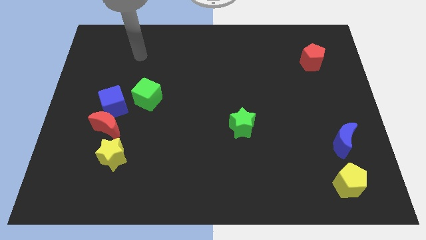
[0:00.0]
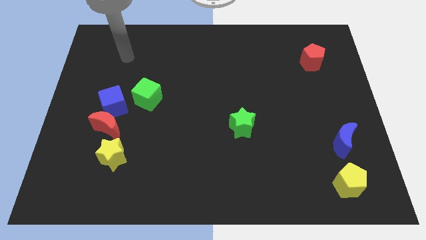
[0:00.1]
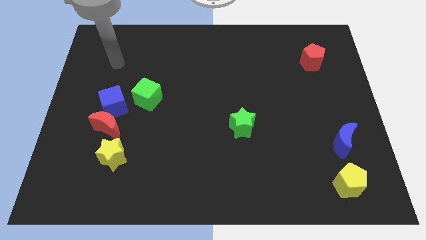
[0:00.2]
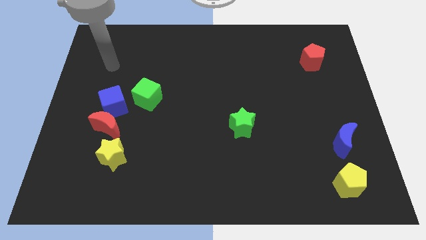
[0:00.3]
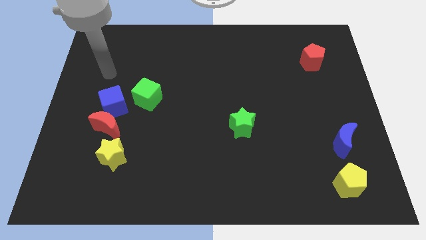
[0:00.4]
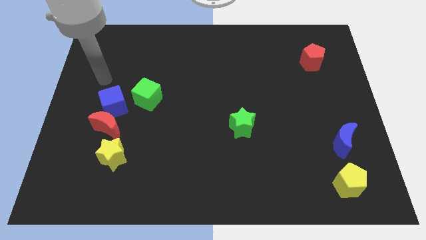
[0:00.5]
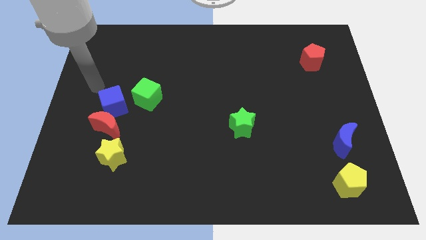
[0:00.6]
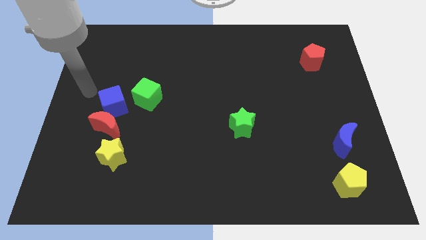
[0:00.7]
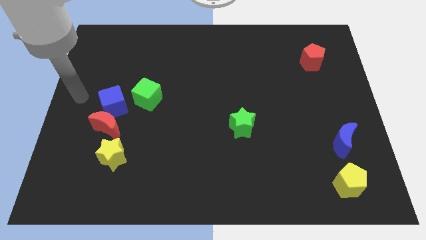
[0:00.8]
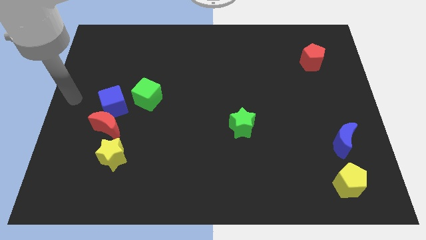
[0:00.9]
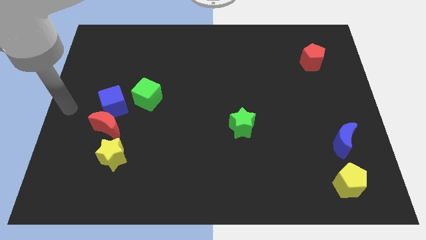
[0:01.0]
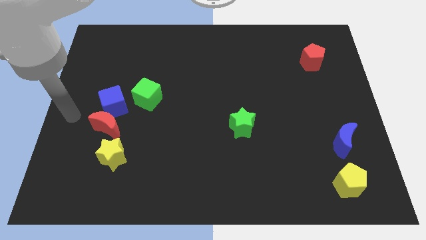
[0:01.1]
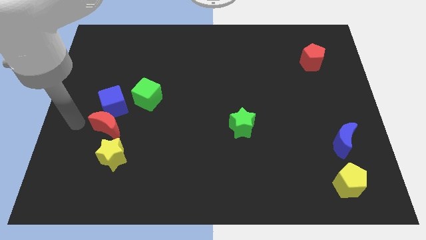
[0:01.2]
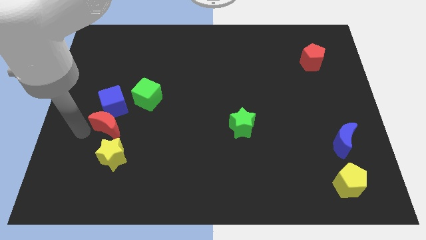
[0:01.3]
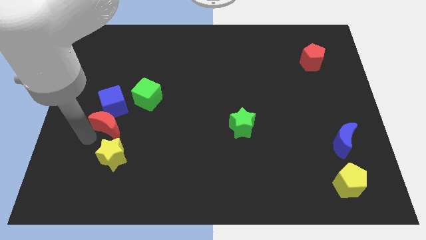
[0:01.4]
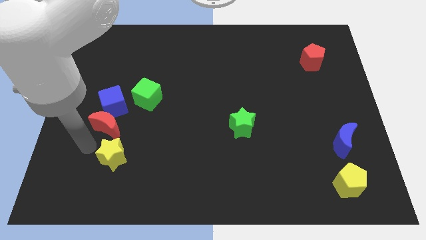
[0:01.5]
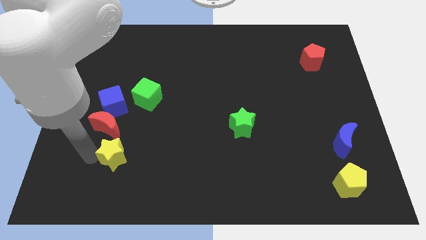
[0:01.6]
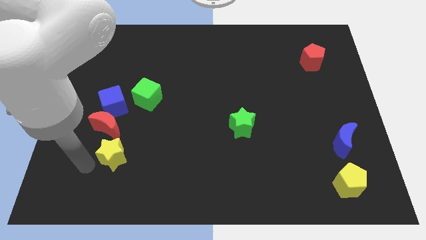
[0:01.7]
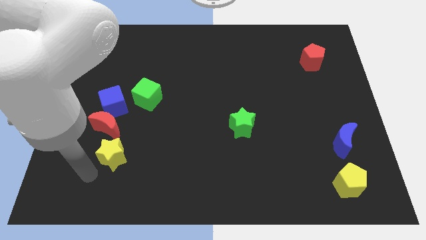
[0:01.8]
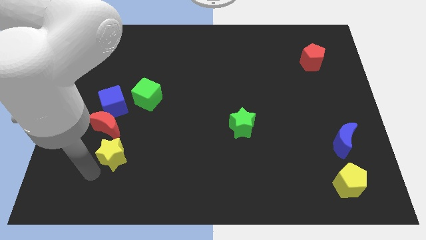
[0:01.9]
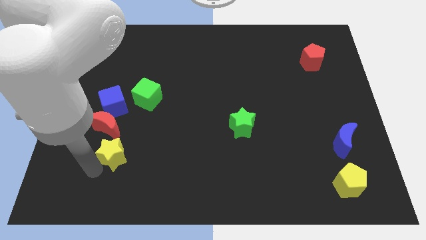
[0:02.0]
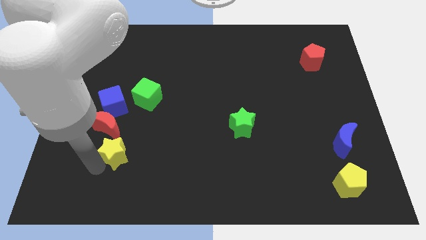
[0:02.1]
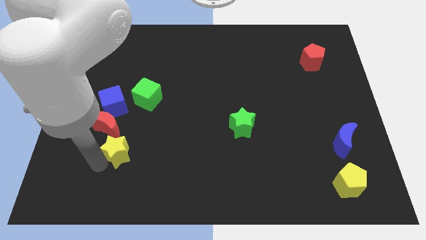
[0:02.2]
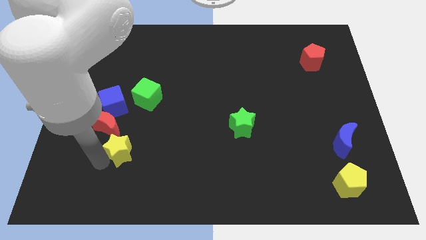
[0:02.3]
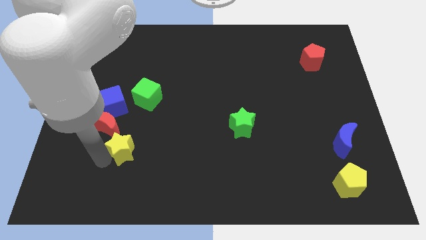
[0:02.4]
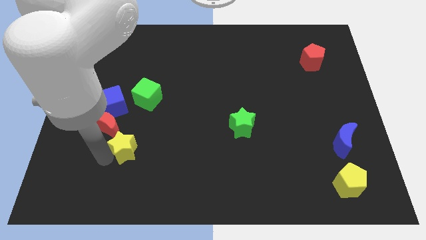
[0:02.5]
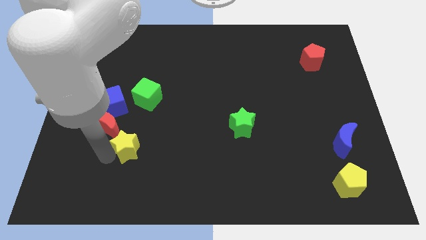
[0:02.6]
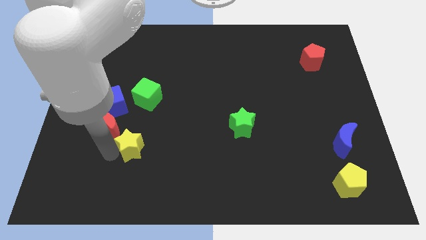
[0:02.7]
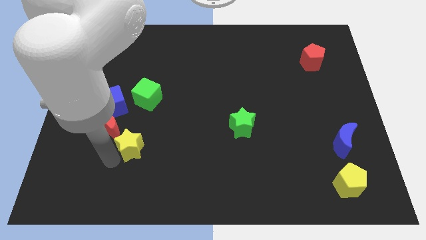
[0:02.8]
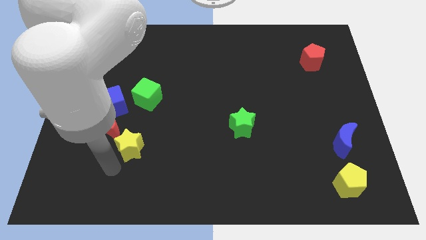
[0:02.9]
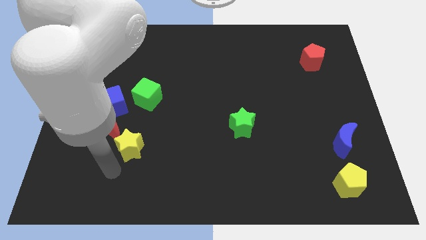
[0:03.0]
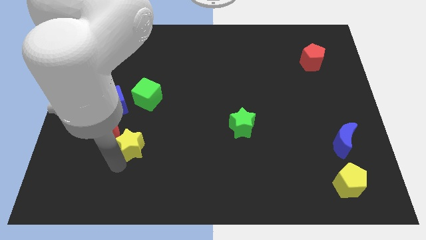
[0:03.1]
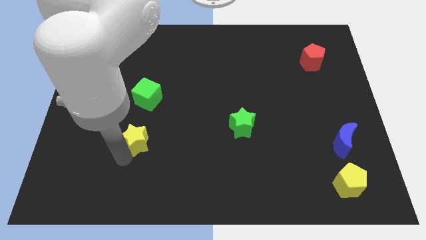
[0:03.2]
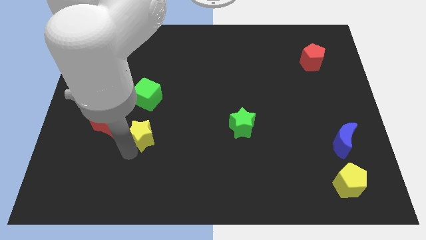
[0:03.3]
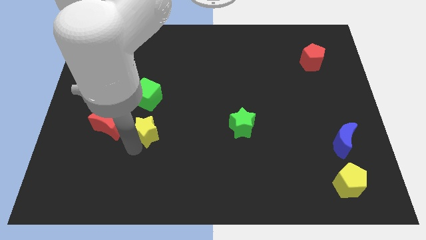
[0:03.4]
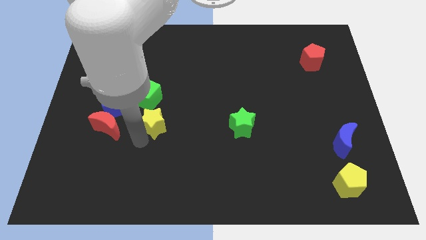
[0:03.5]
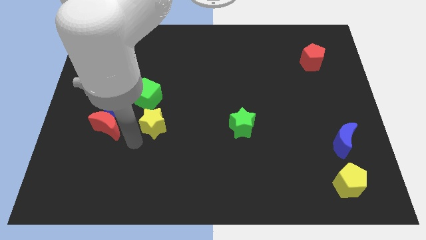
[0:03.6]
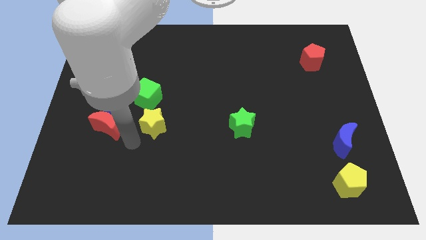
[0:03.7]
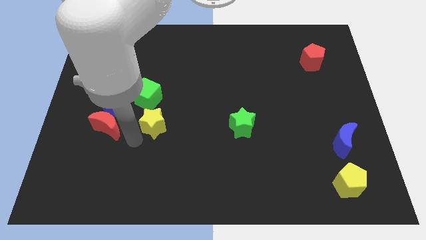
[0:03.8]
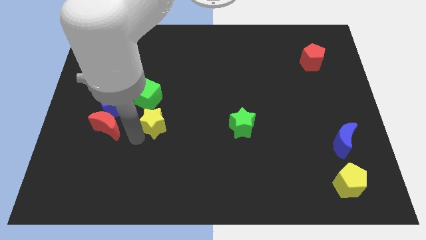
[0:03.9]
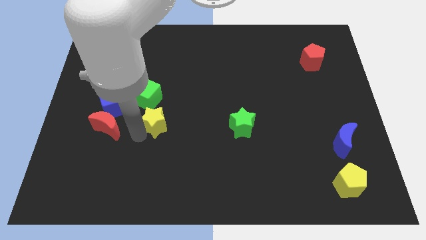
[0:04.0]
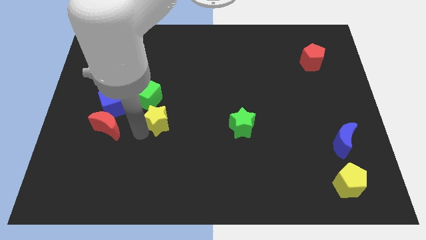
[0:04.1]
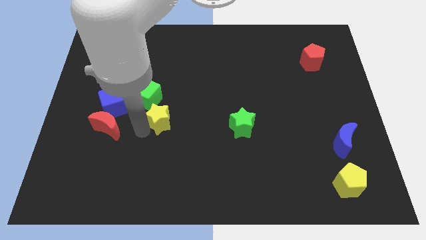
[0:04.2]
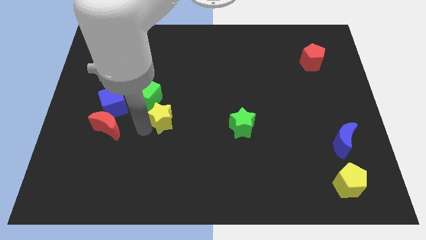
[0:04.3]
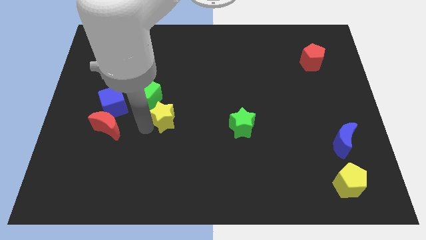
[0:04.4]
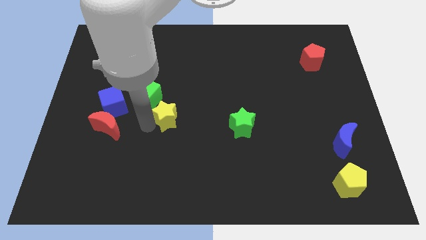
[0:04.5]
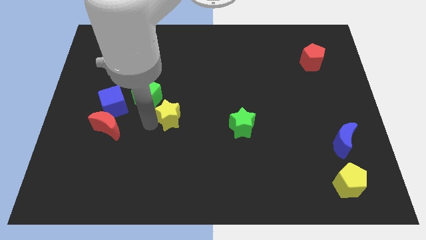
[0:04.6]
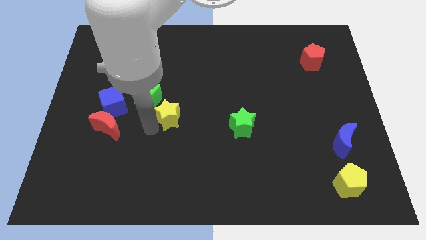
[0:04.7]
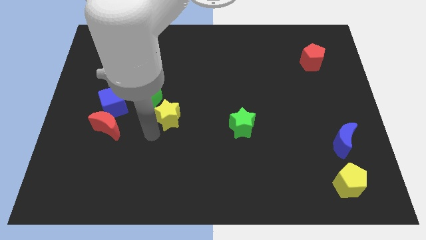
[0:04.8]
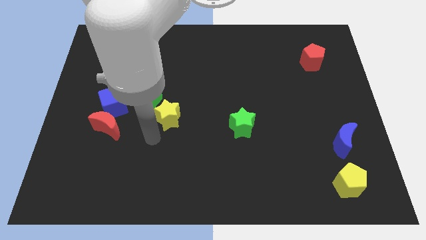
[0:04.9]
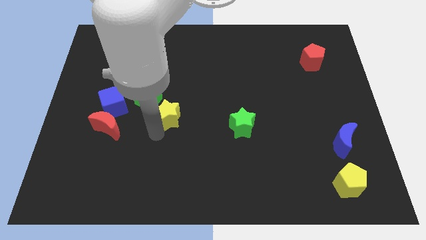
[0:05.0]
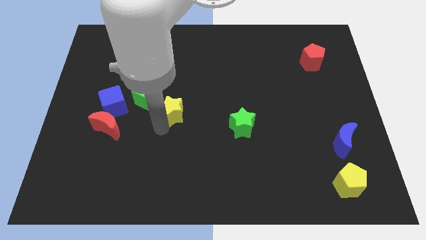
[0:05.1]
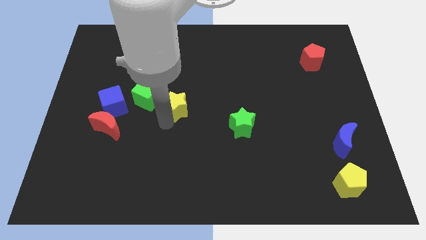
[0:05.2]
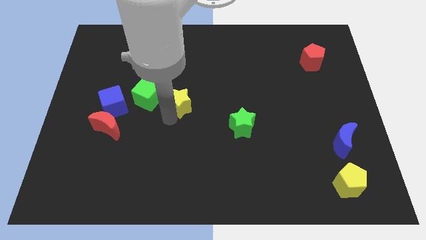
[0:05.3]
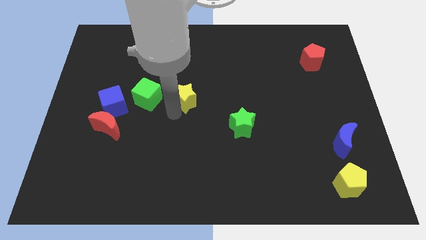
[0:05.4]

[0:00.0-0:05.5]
slide the yellow star diagonally up and right

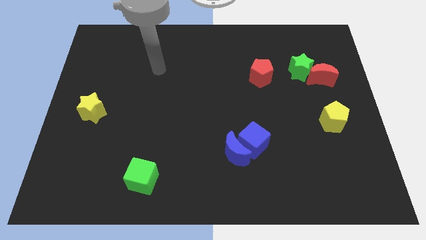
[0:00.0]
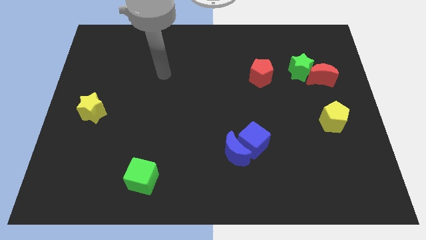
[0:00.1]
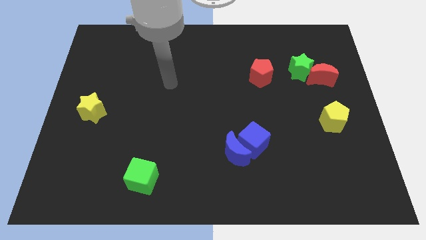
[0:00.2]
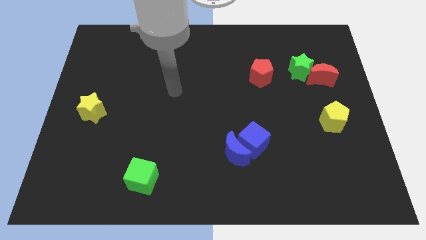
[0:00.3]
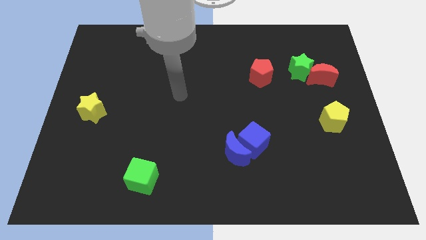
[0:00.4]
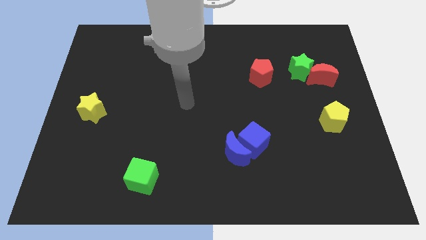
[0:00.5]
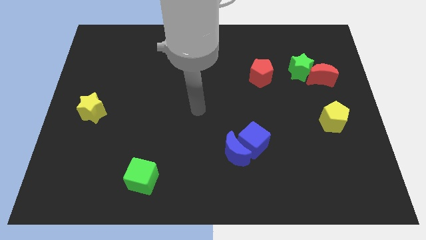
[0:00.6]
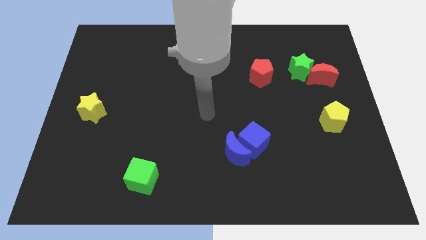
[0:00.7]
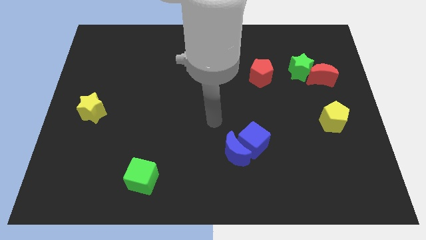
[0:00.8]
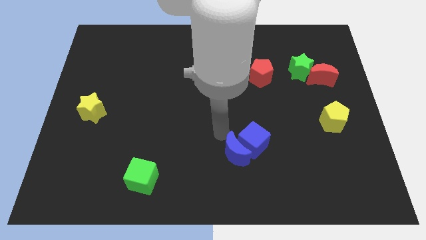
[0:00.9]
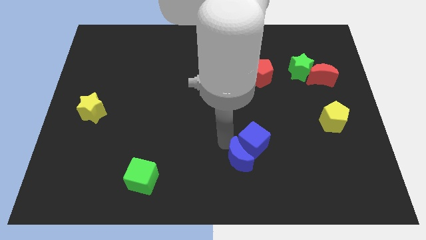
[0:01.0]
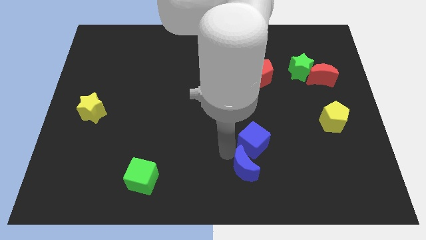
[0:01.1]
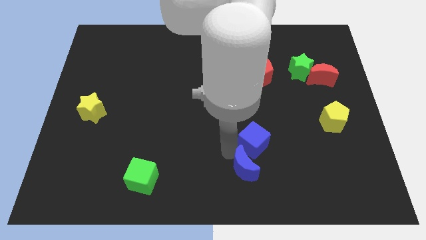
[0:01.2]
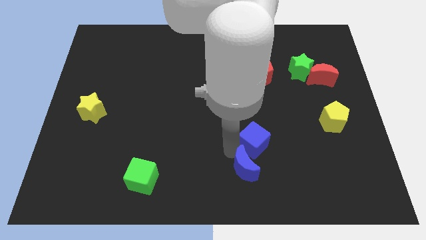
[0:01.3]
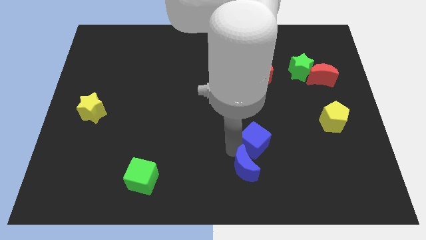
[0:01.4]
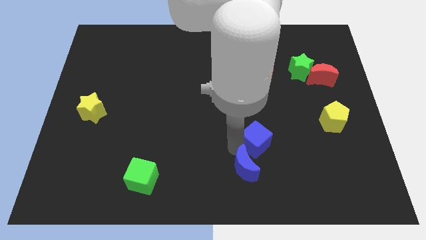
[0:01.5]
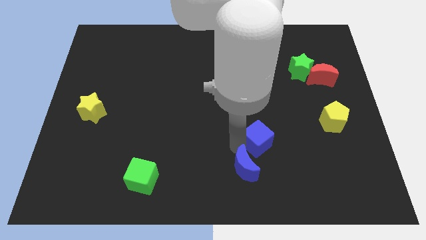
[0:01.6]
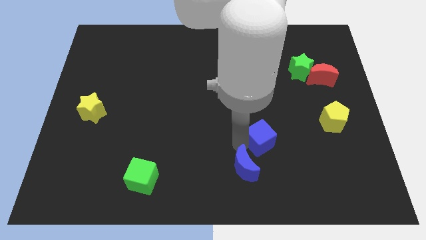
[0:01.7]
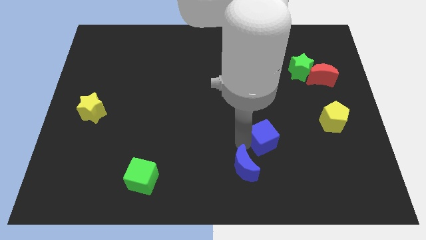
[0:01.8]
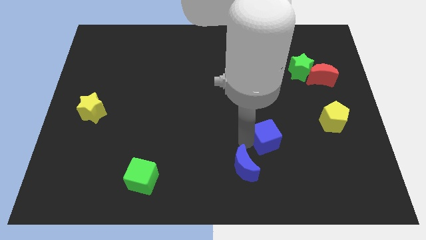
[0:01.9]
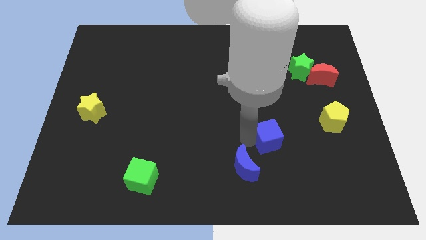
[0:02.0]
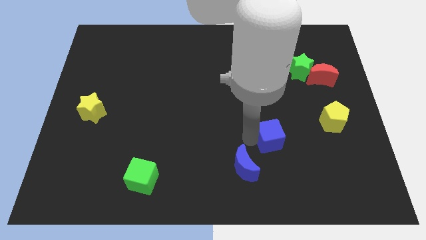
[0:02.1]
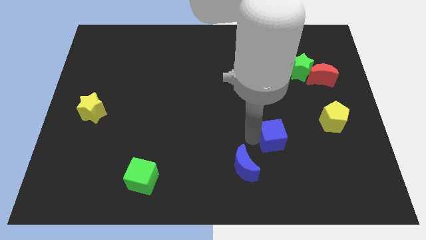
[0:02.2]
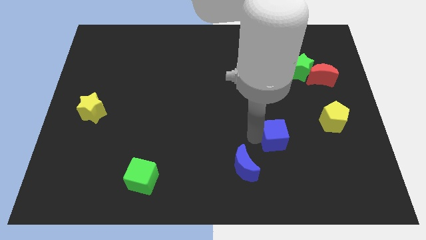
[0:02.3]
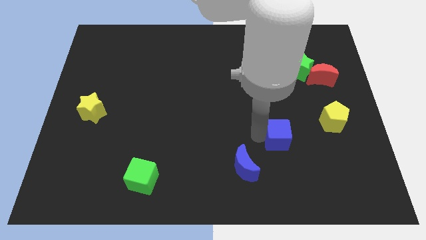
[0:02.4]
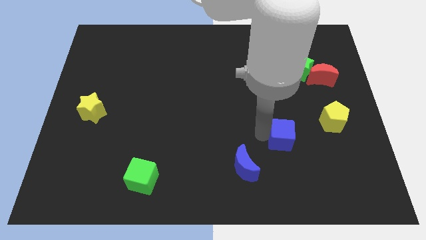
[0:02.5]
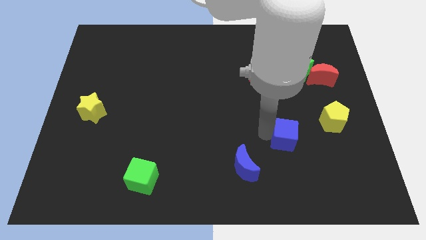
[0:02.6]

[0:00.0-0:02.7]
push the blue cube somewhat right

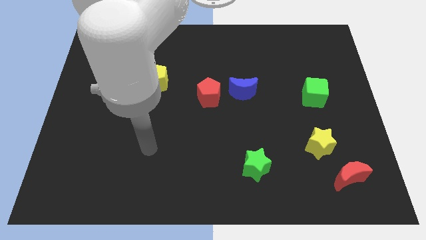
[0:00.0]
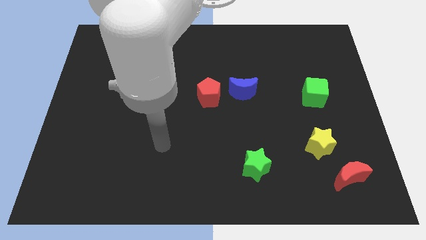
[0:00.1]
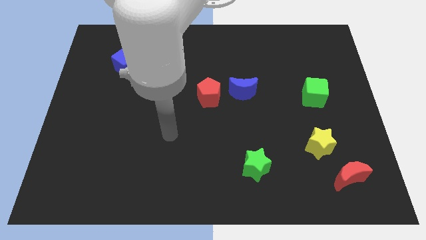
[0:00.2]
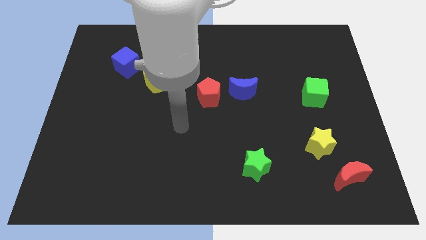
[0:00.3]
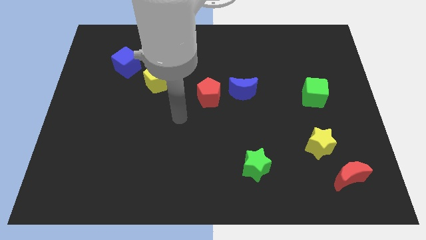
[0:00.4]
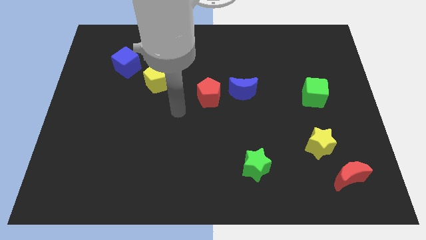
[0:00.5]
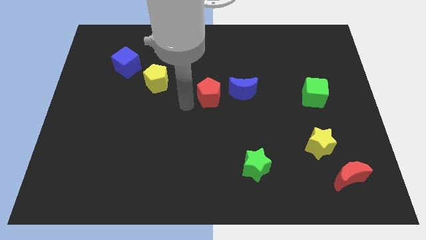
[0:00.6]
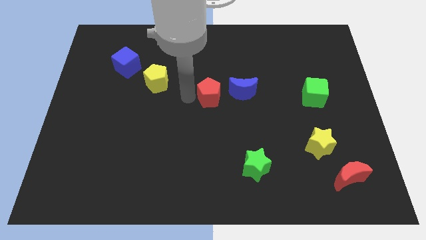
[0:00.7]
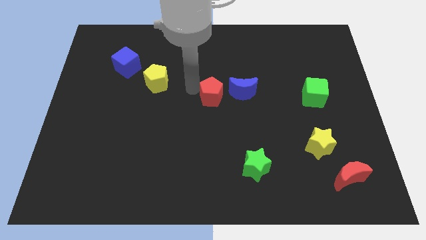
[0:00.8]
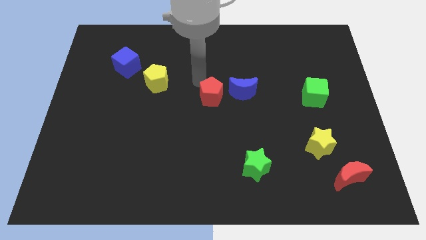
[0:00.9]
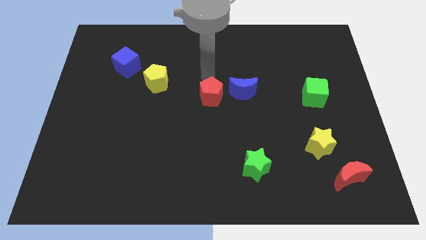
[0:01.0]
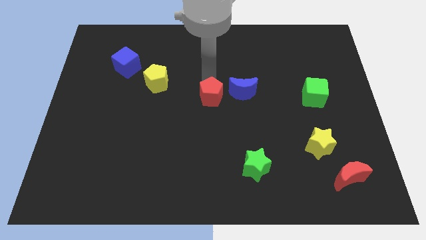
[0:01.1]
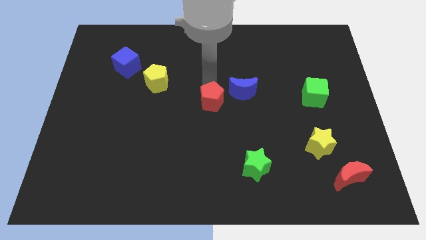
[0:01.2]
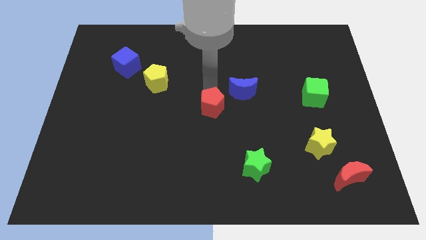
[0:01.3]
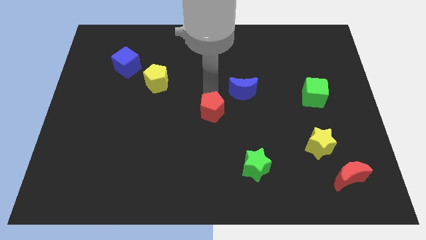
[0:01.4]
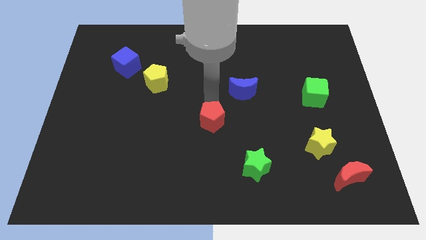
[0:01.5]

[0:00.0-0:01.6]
move the red pentagon slightly down
